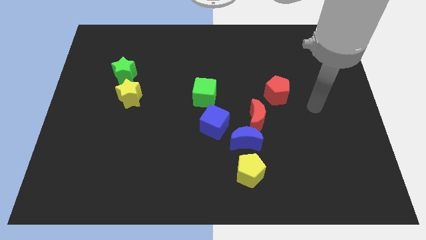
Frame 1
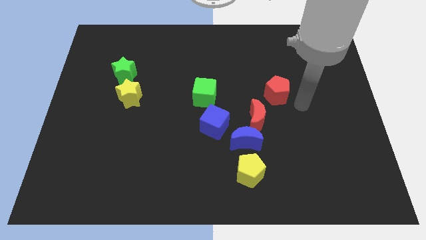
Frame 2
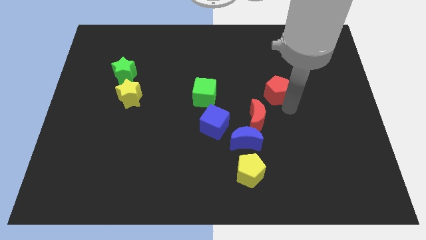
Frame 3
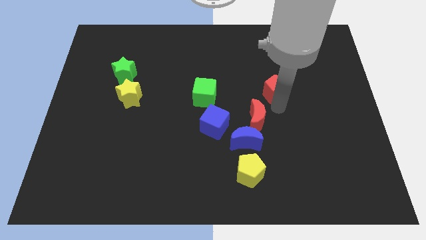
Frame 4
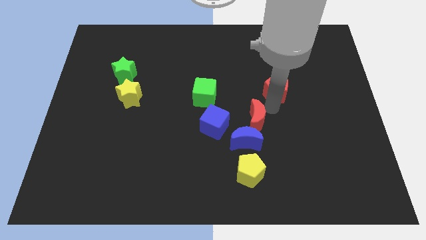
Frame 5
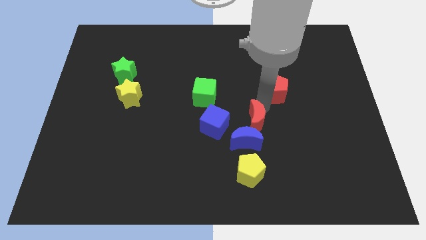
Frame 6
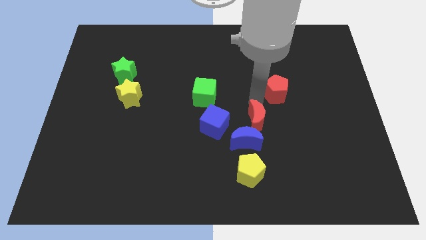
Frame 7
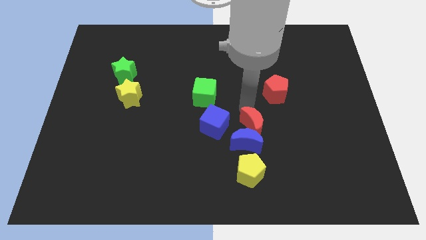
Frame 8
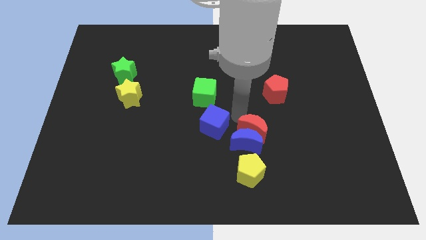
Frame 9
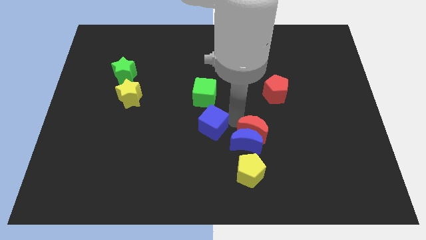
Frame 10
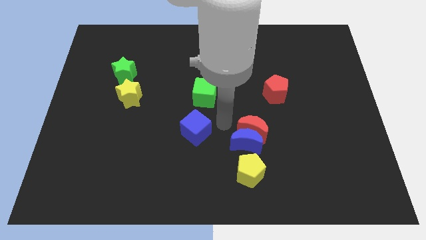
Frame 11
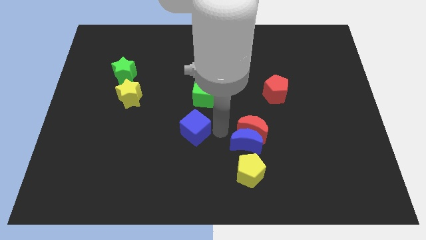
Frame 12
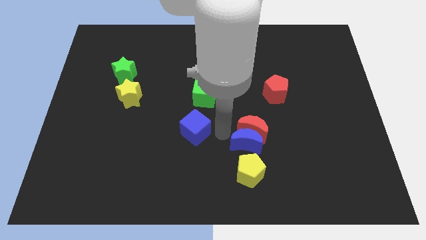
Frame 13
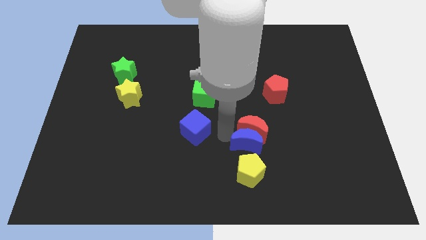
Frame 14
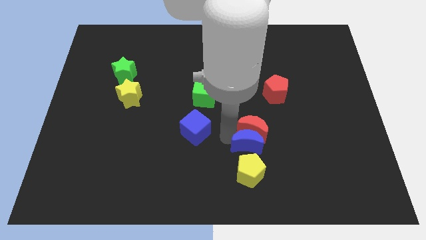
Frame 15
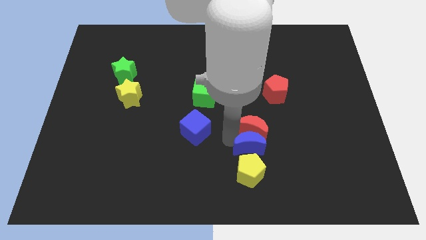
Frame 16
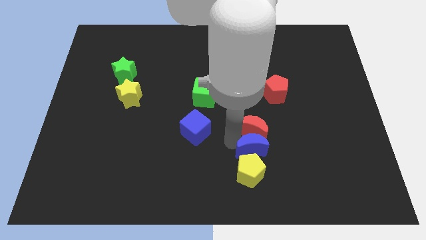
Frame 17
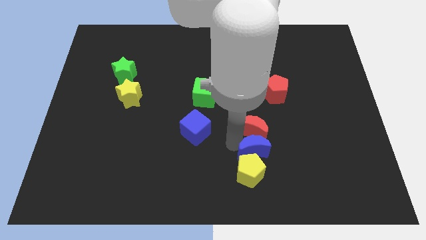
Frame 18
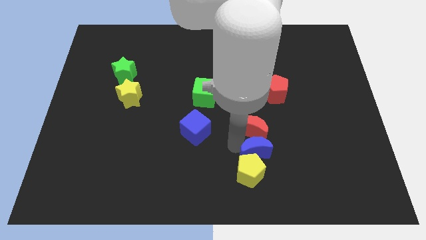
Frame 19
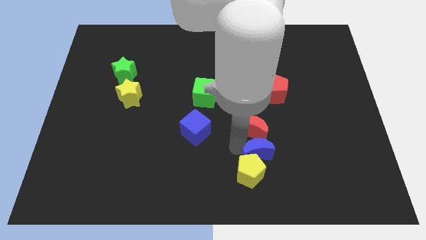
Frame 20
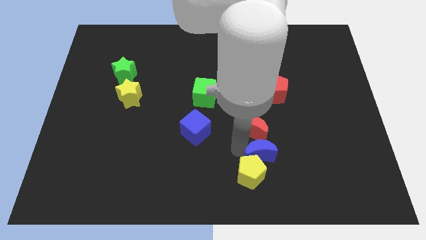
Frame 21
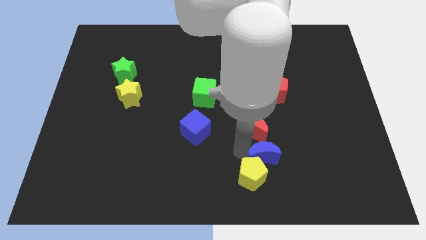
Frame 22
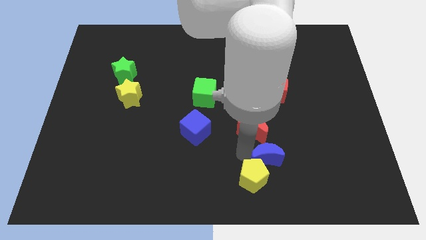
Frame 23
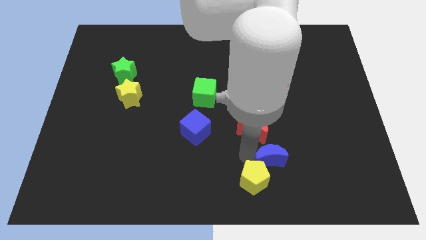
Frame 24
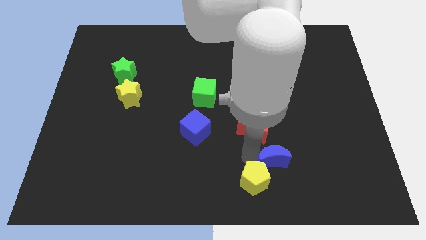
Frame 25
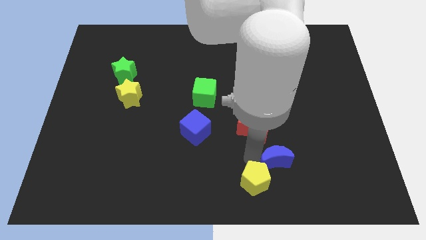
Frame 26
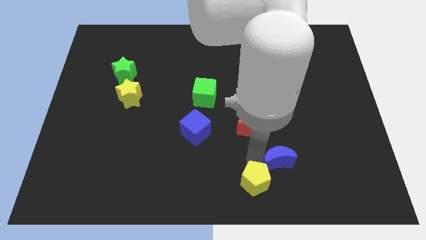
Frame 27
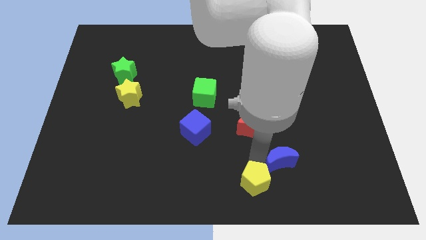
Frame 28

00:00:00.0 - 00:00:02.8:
move the blue moon away from the group

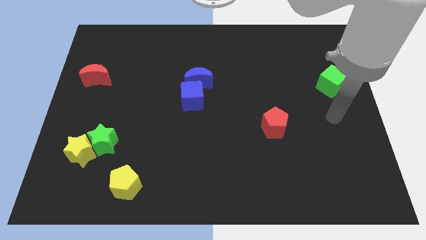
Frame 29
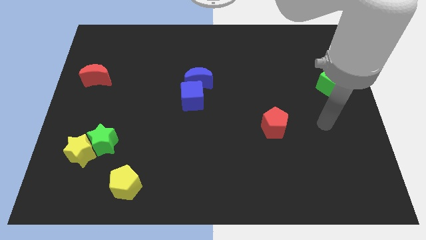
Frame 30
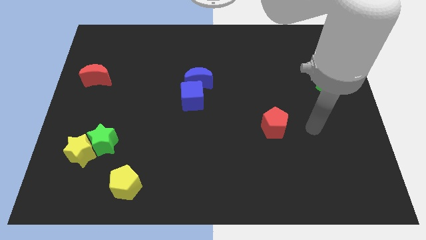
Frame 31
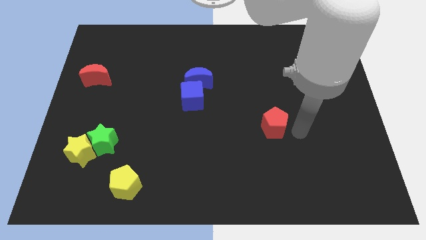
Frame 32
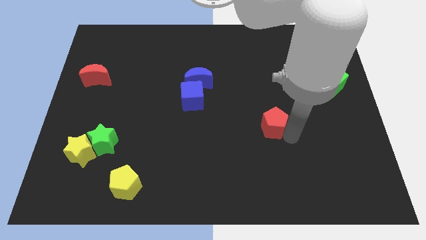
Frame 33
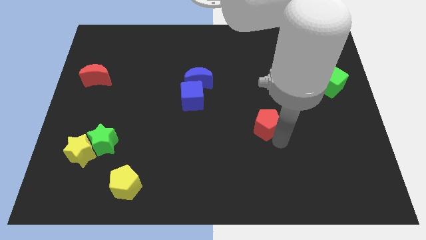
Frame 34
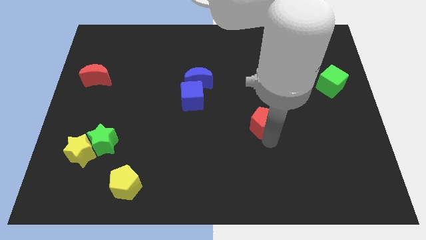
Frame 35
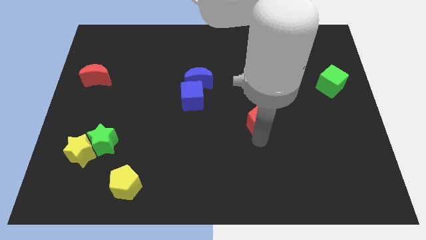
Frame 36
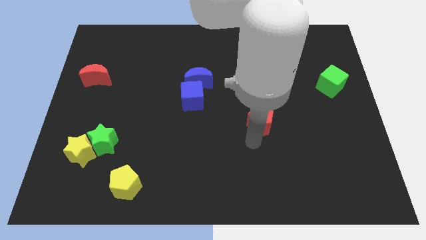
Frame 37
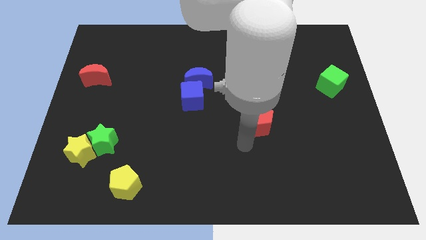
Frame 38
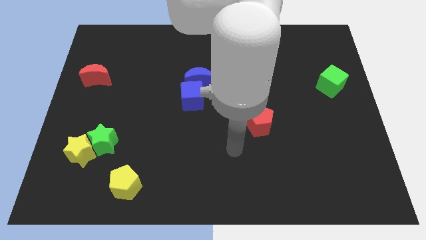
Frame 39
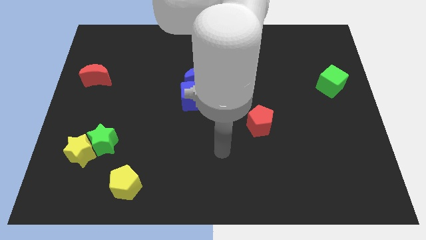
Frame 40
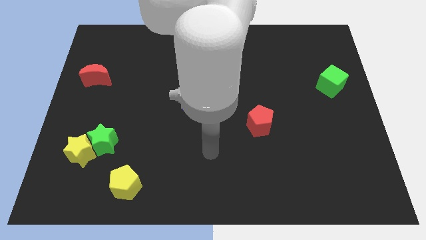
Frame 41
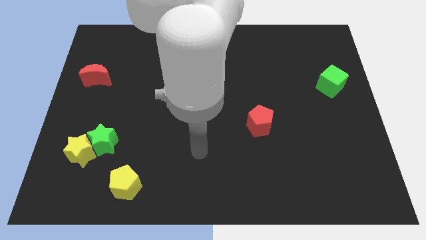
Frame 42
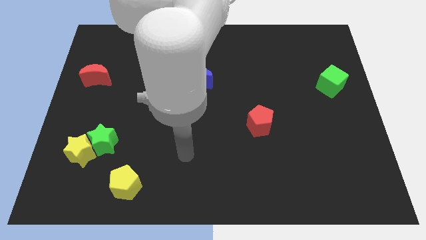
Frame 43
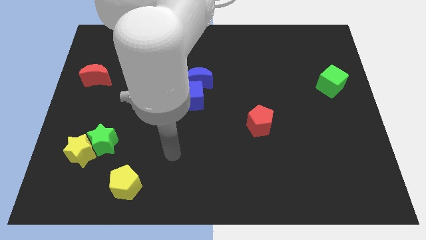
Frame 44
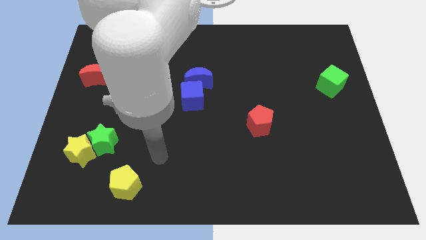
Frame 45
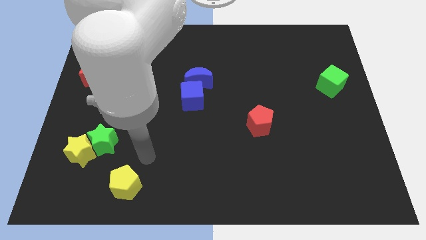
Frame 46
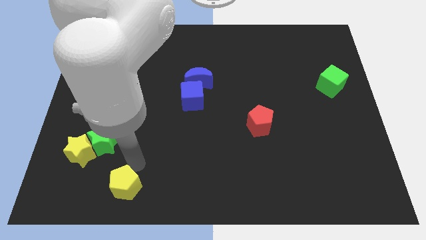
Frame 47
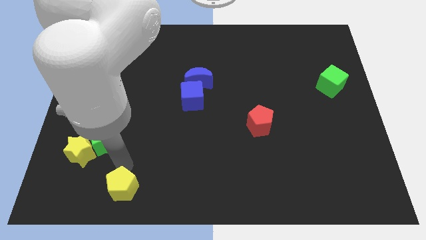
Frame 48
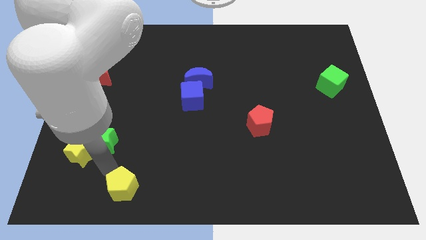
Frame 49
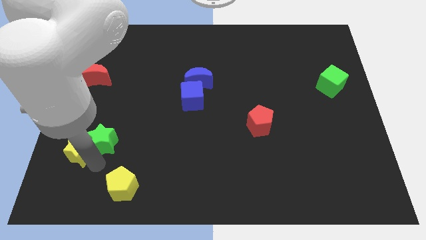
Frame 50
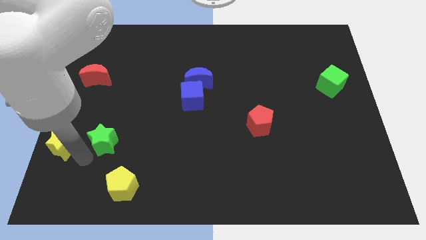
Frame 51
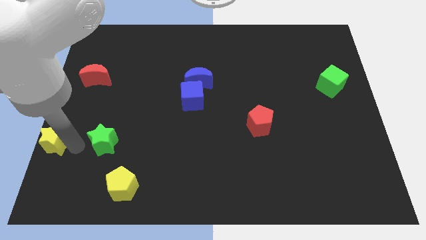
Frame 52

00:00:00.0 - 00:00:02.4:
separate the green star from the yellow star

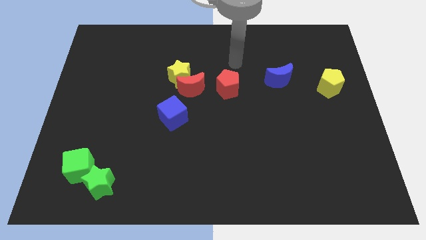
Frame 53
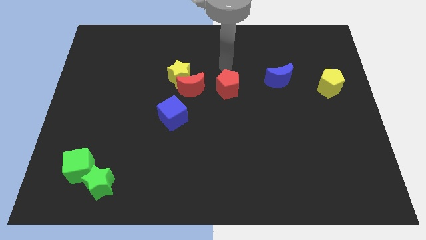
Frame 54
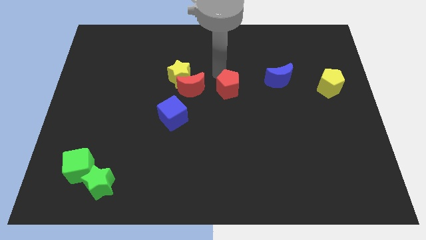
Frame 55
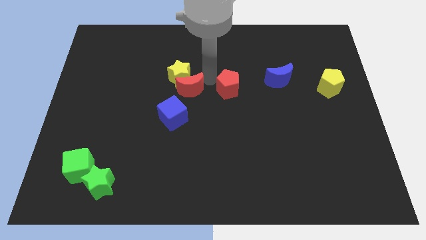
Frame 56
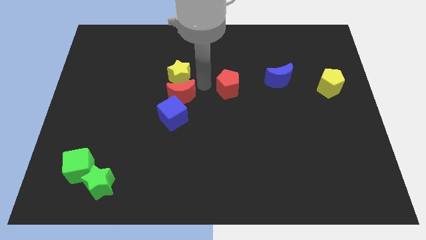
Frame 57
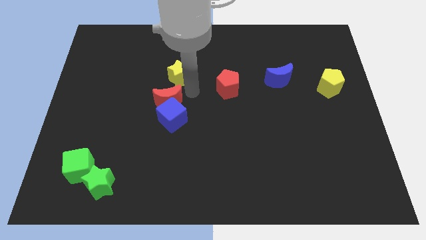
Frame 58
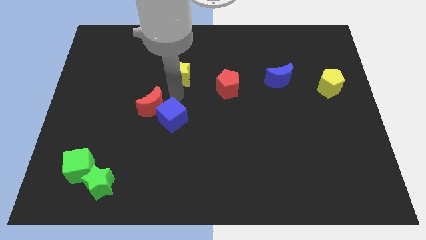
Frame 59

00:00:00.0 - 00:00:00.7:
separate the yellow star from the red moon

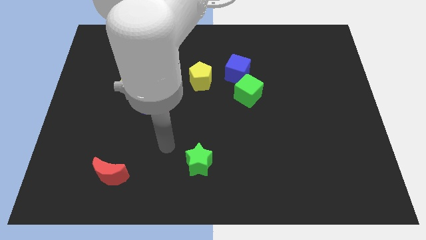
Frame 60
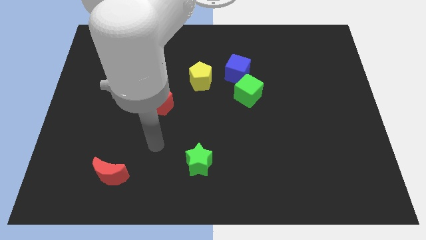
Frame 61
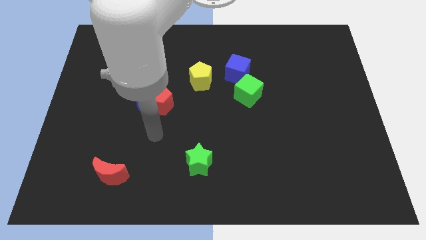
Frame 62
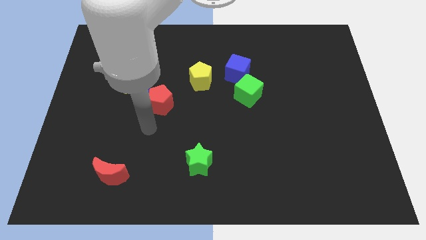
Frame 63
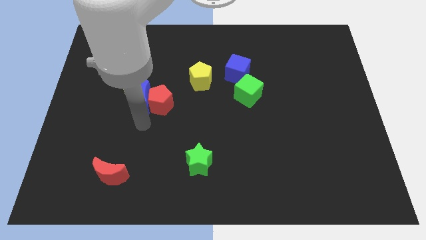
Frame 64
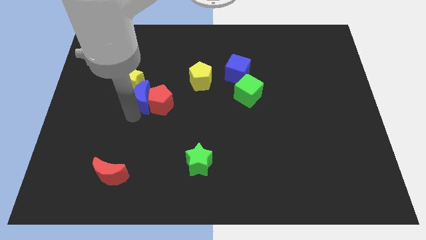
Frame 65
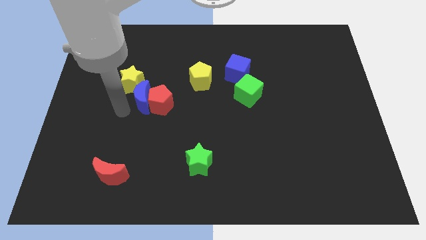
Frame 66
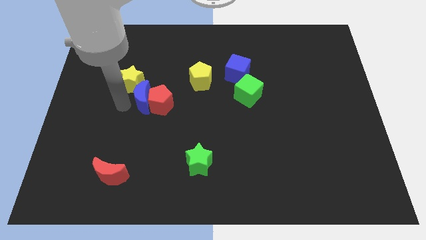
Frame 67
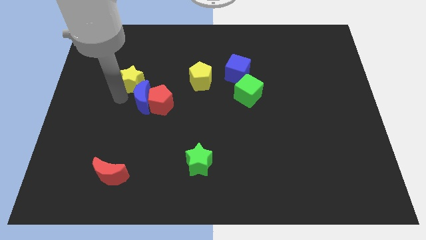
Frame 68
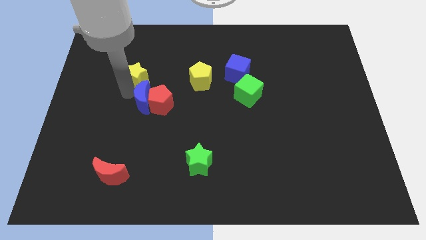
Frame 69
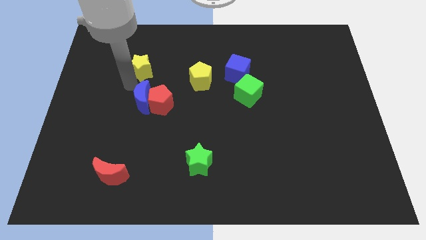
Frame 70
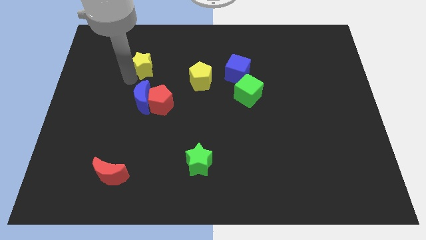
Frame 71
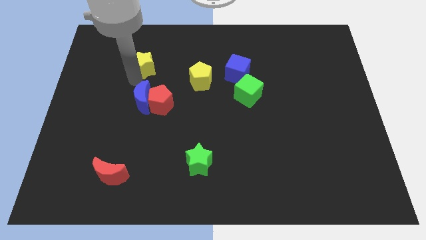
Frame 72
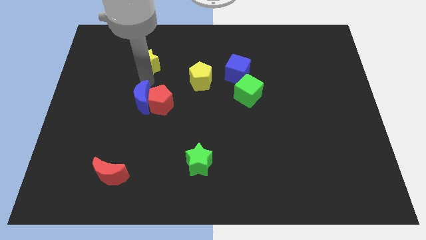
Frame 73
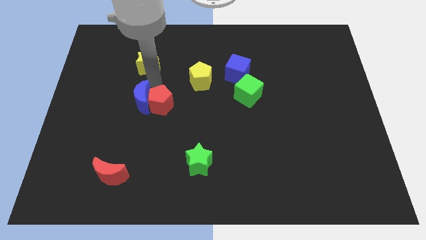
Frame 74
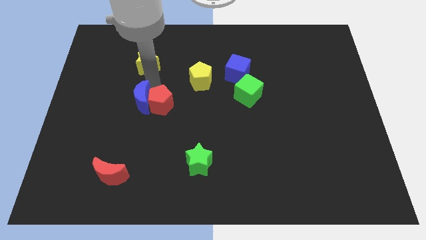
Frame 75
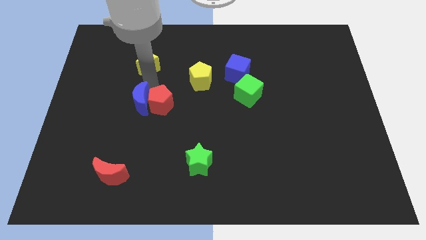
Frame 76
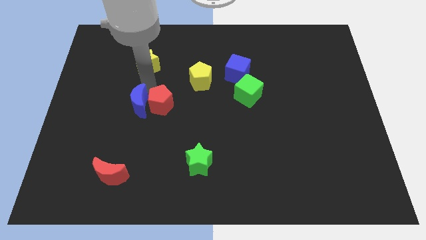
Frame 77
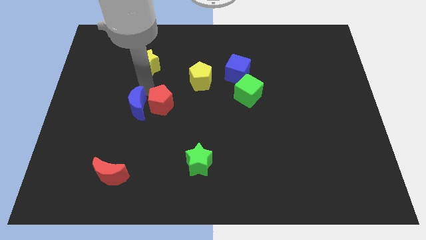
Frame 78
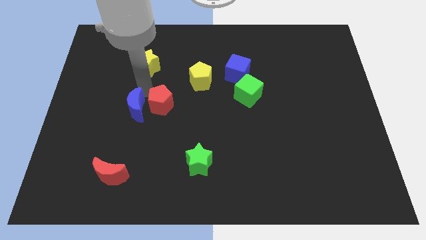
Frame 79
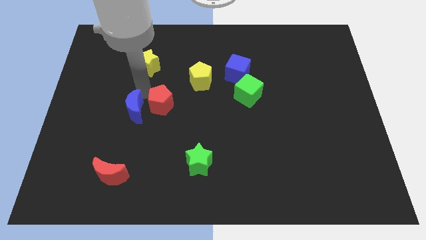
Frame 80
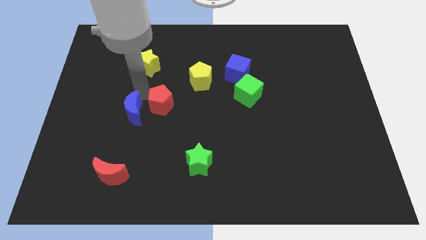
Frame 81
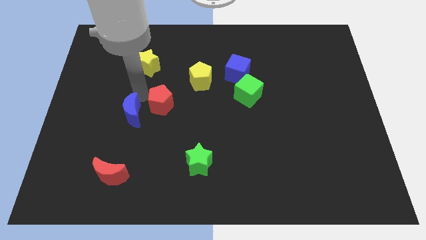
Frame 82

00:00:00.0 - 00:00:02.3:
separate the blue moon from the red pentagon and yellow star

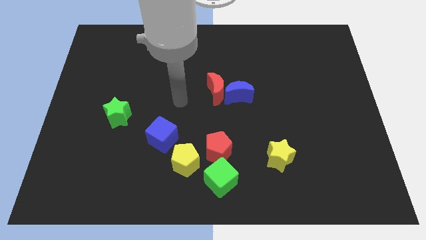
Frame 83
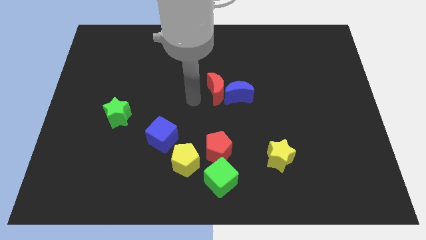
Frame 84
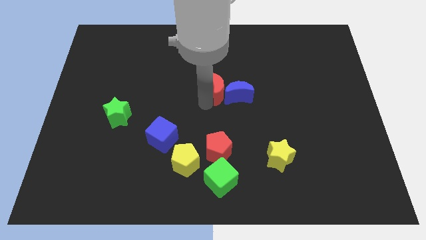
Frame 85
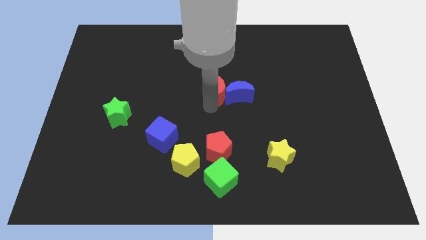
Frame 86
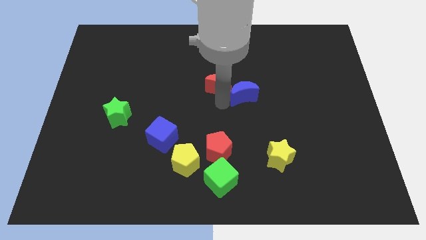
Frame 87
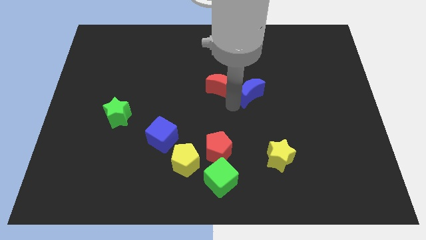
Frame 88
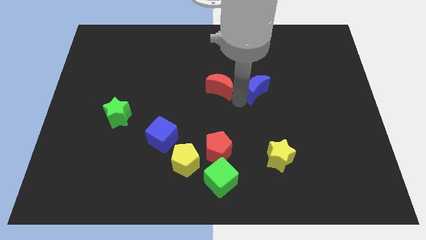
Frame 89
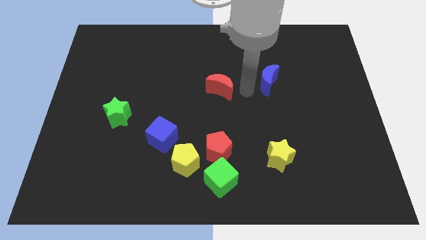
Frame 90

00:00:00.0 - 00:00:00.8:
pull the red moon apart from the blue moon

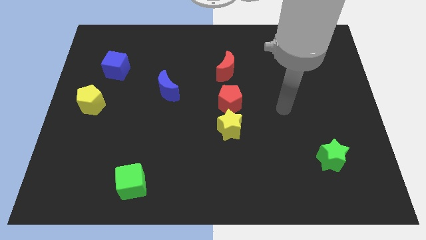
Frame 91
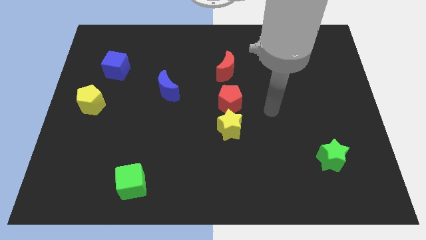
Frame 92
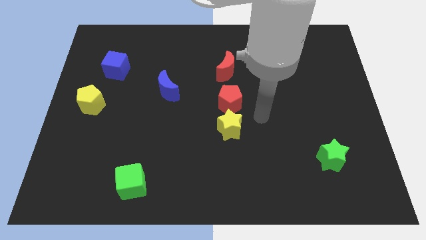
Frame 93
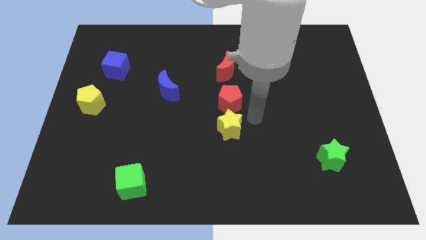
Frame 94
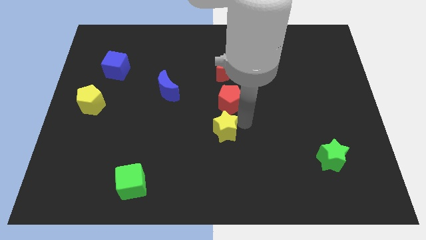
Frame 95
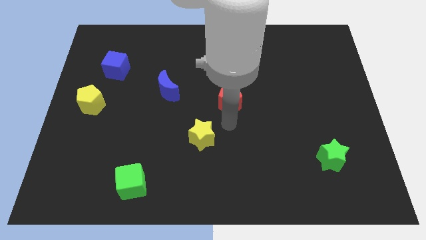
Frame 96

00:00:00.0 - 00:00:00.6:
move the red pentagon away from the yellow star
